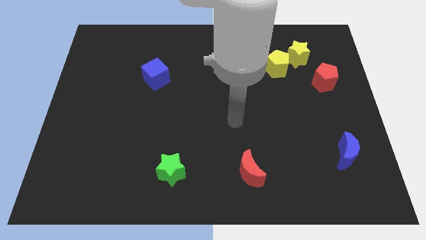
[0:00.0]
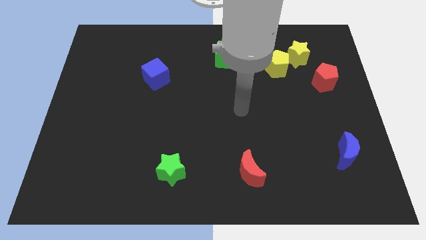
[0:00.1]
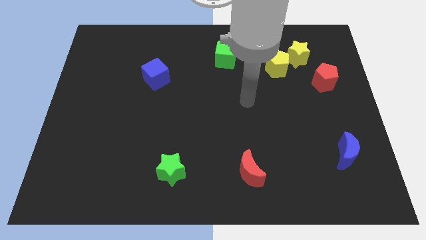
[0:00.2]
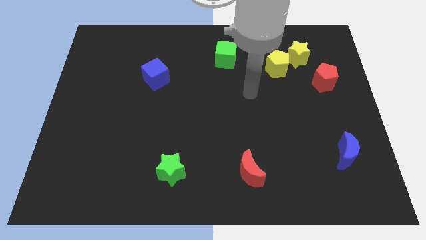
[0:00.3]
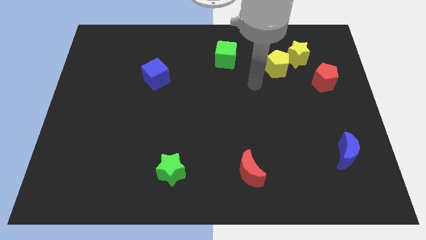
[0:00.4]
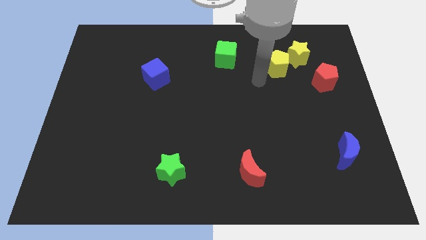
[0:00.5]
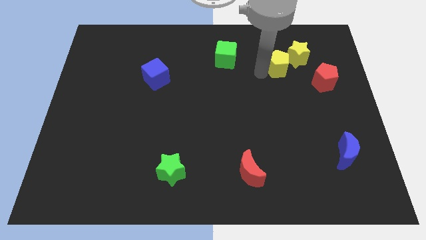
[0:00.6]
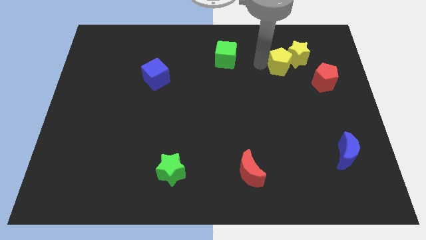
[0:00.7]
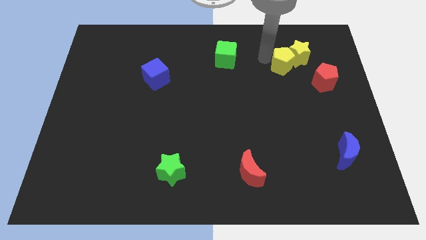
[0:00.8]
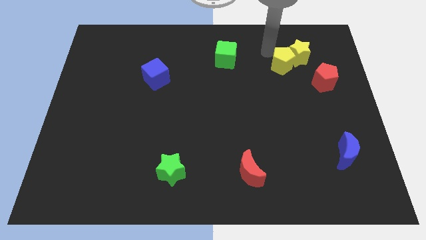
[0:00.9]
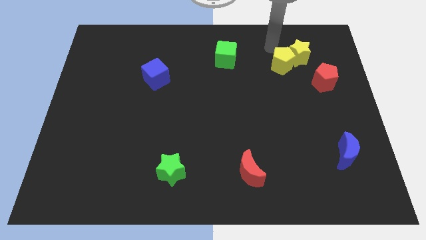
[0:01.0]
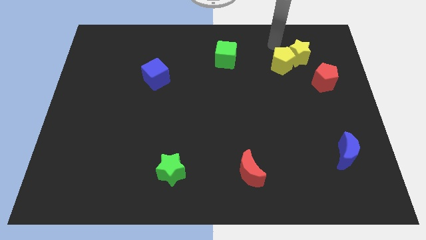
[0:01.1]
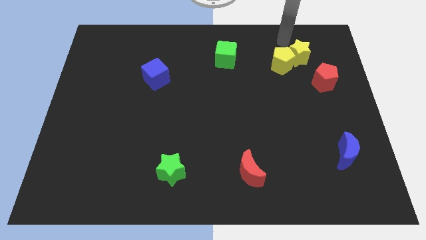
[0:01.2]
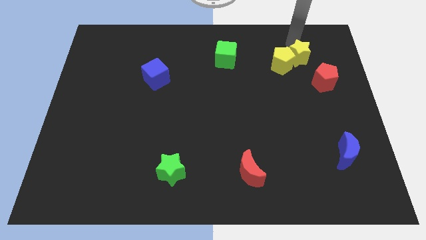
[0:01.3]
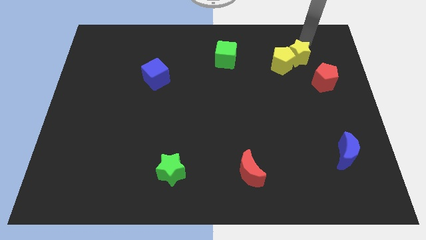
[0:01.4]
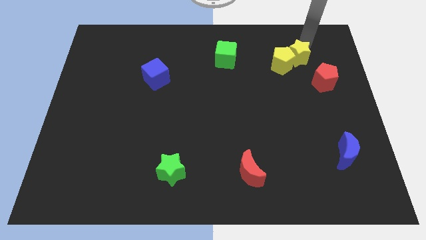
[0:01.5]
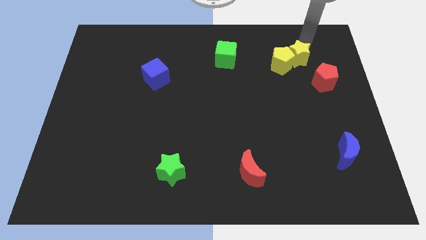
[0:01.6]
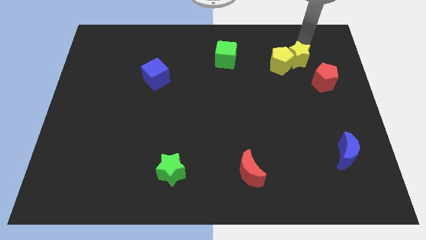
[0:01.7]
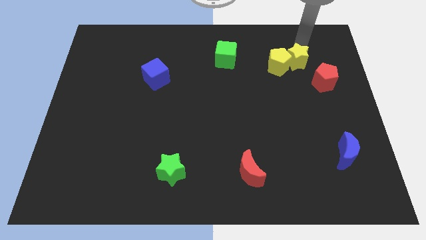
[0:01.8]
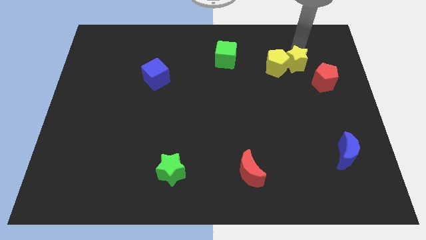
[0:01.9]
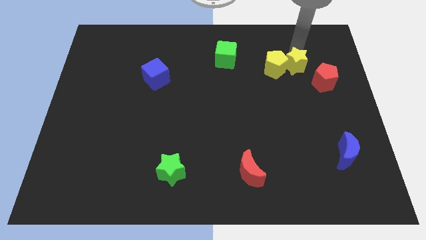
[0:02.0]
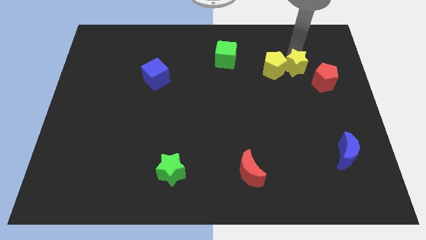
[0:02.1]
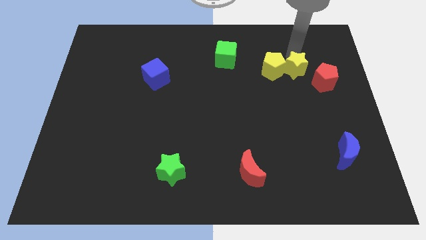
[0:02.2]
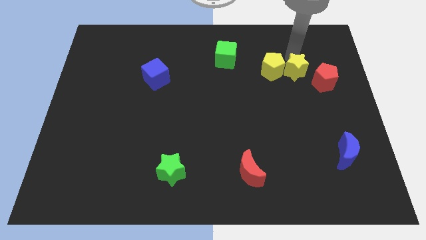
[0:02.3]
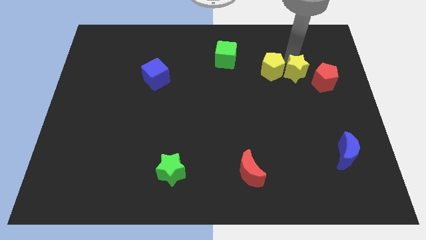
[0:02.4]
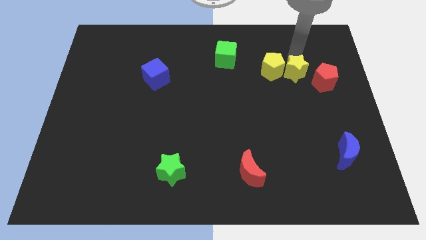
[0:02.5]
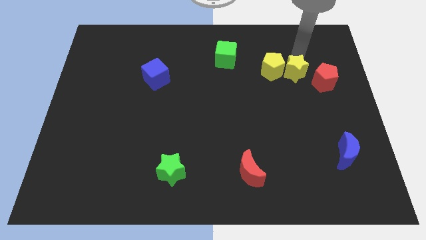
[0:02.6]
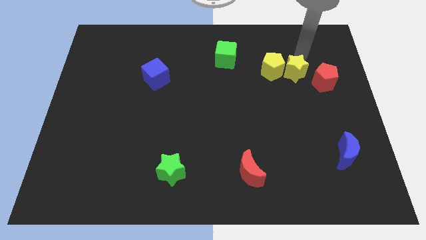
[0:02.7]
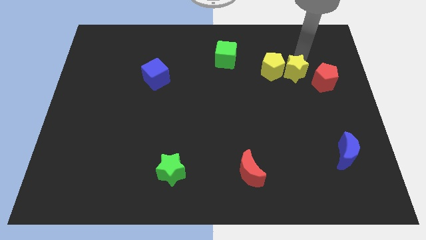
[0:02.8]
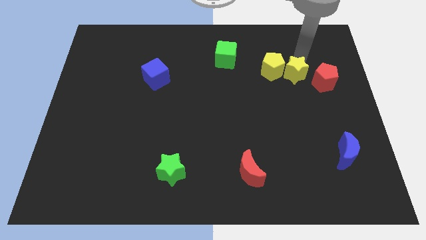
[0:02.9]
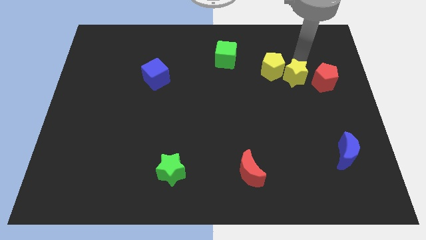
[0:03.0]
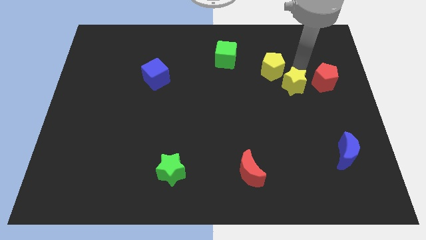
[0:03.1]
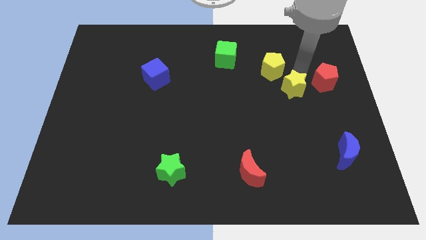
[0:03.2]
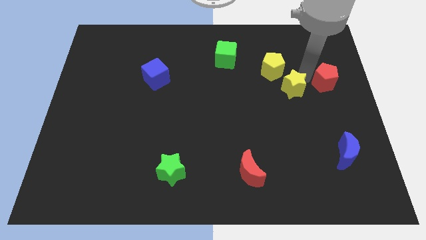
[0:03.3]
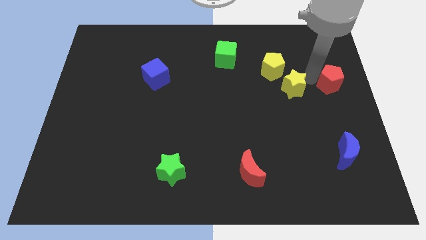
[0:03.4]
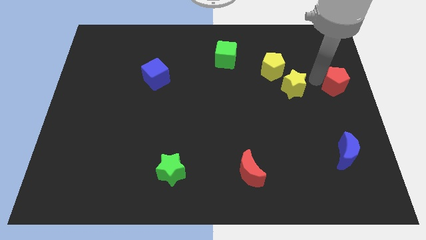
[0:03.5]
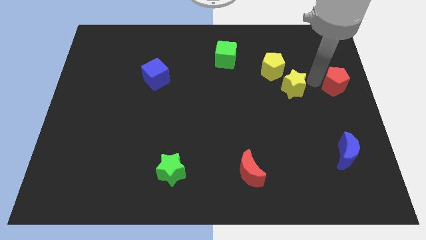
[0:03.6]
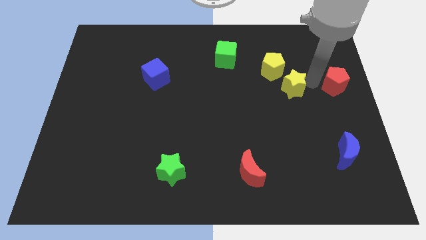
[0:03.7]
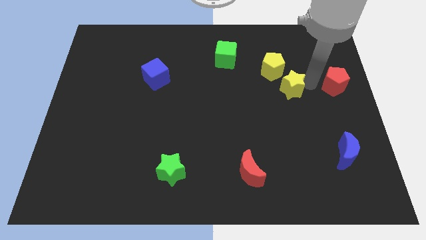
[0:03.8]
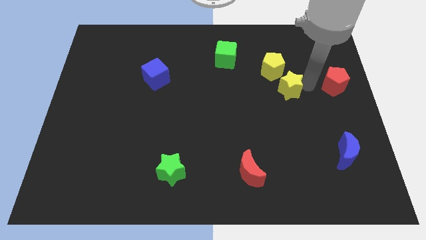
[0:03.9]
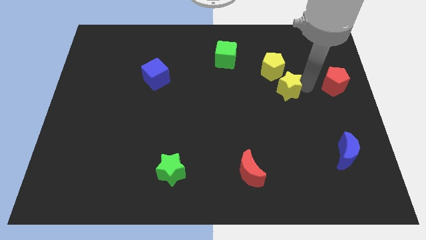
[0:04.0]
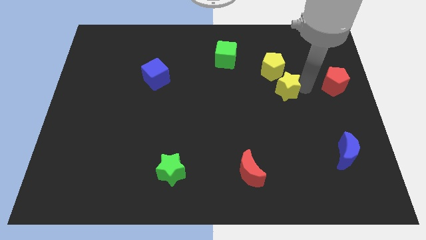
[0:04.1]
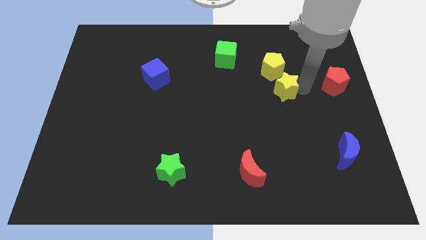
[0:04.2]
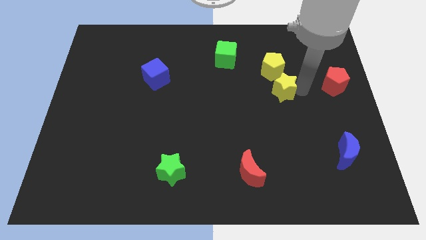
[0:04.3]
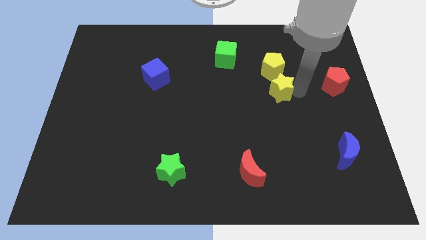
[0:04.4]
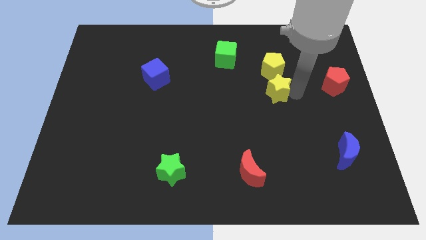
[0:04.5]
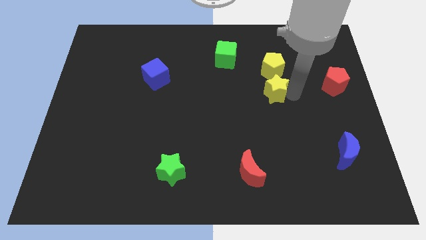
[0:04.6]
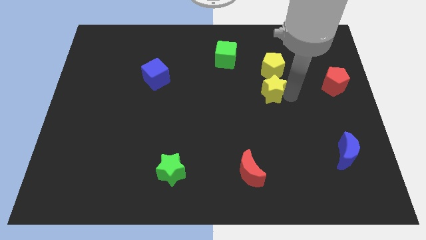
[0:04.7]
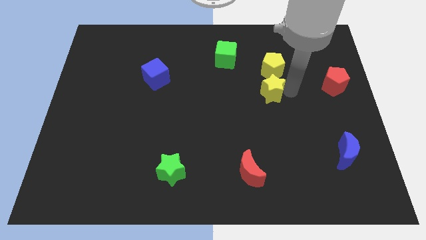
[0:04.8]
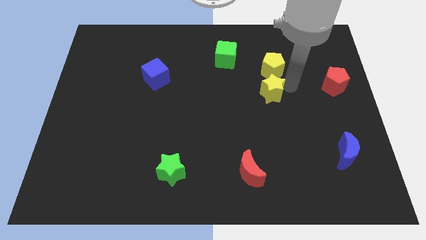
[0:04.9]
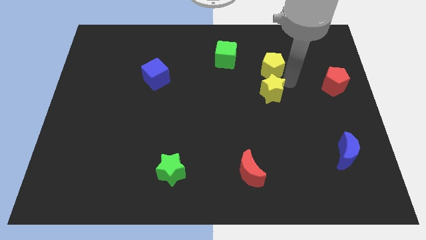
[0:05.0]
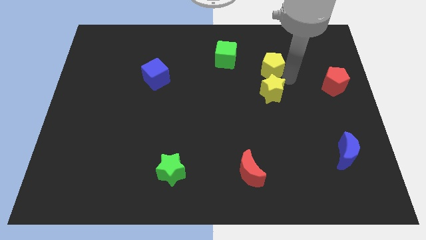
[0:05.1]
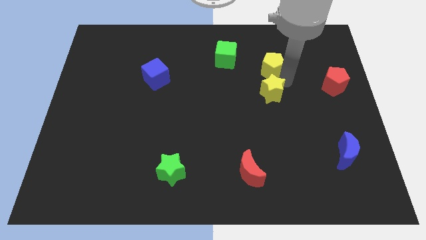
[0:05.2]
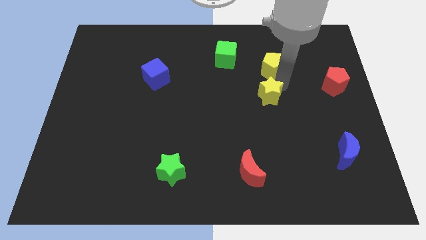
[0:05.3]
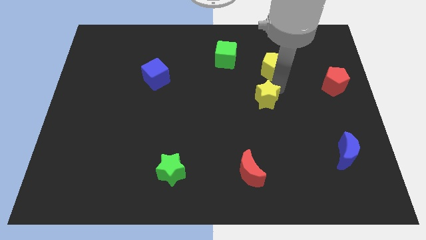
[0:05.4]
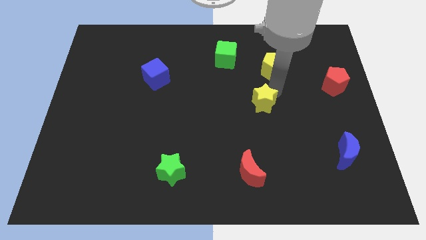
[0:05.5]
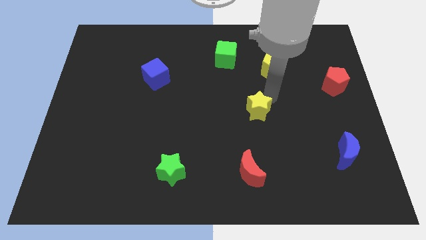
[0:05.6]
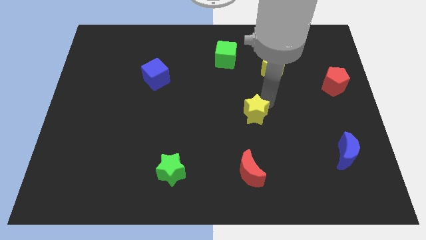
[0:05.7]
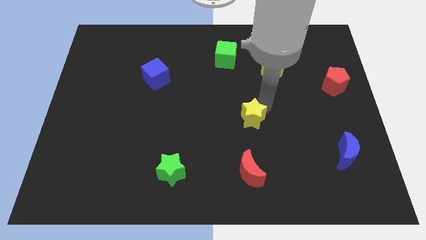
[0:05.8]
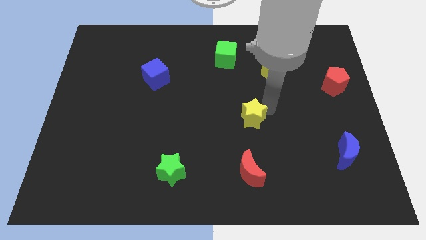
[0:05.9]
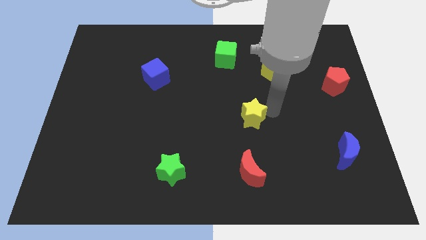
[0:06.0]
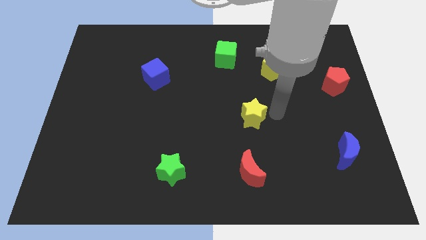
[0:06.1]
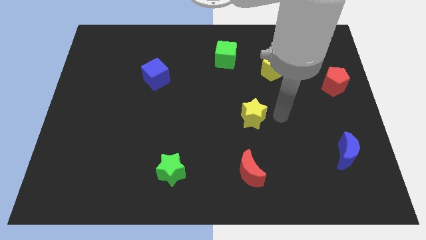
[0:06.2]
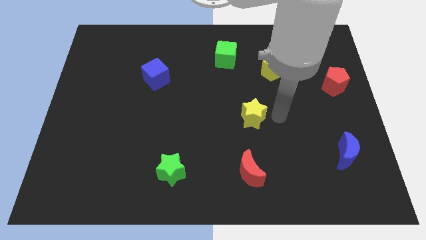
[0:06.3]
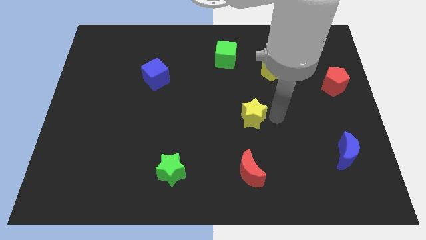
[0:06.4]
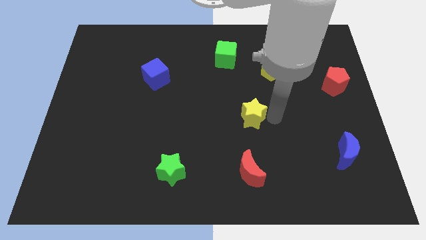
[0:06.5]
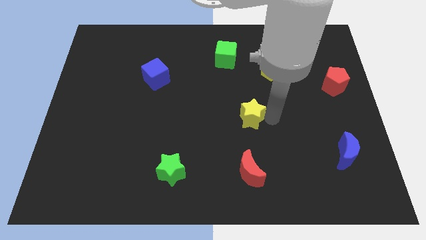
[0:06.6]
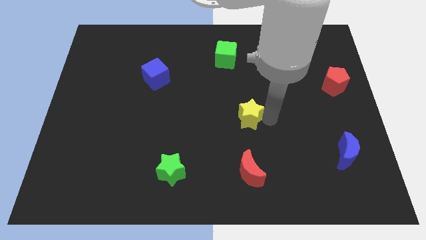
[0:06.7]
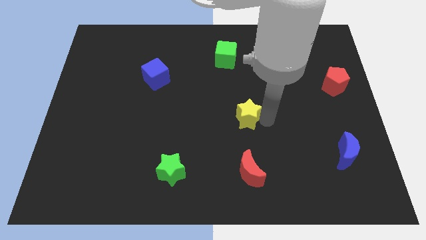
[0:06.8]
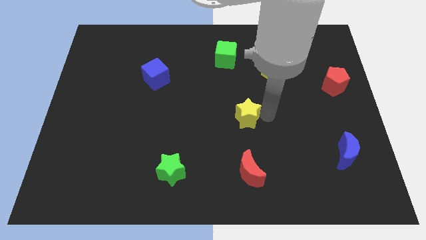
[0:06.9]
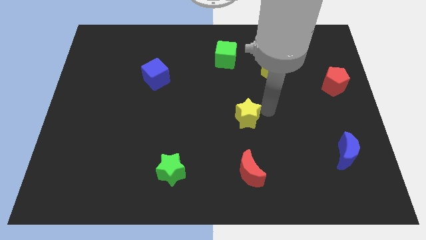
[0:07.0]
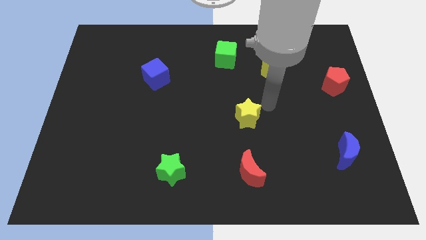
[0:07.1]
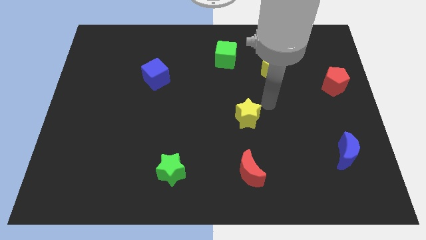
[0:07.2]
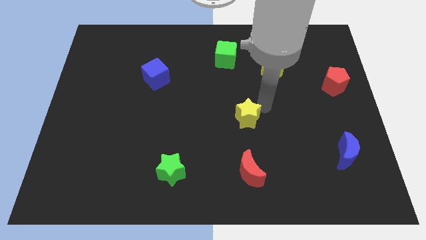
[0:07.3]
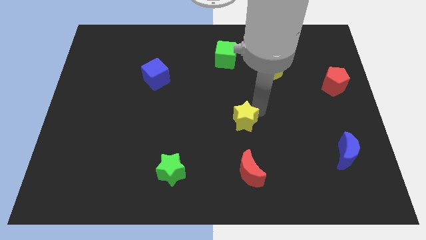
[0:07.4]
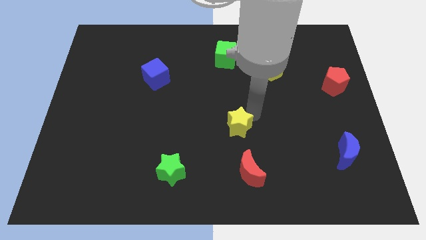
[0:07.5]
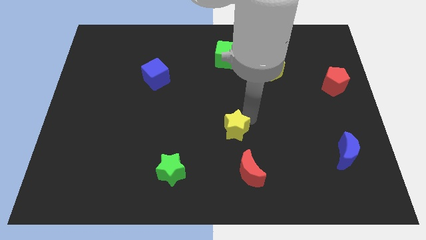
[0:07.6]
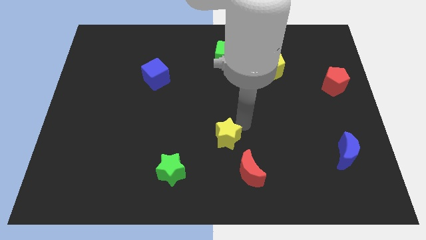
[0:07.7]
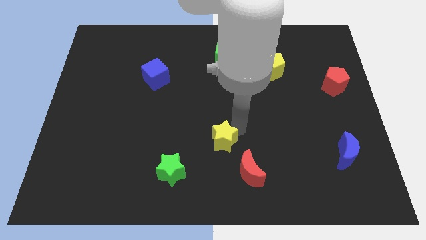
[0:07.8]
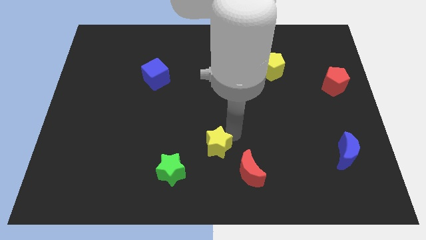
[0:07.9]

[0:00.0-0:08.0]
move the yellow star to the top right side of the green star

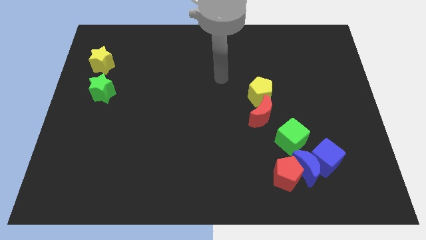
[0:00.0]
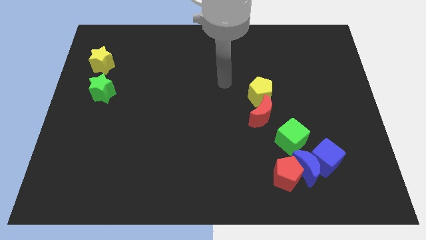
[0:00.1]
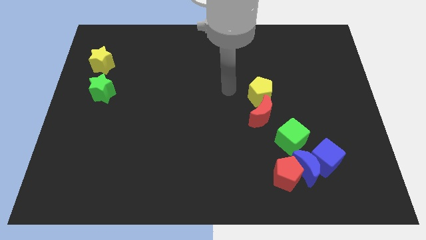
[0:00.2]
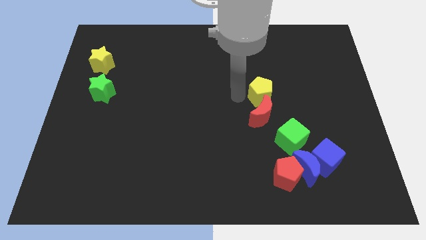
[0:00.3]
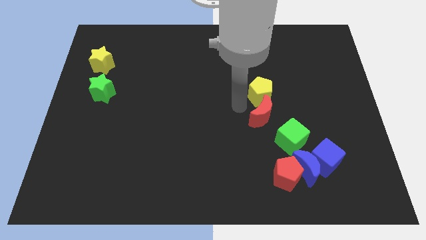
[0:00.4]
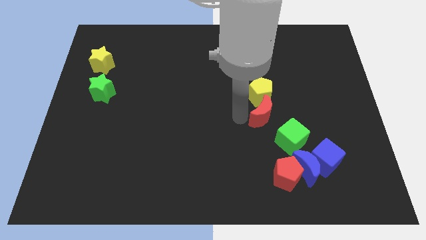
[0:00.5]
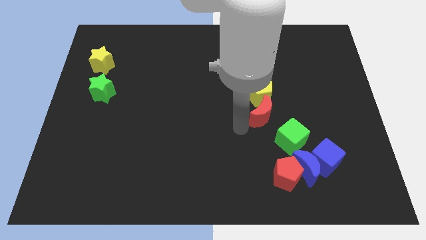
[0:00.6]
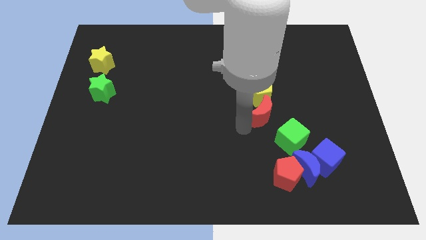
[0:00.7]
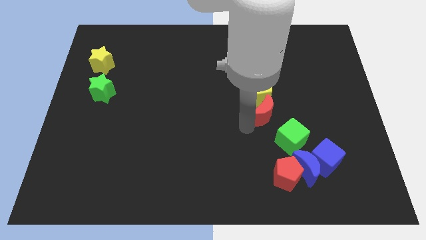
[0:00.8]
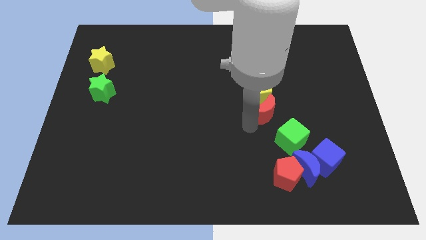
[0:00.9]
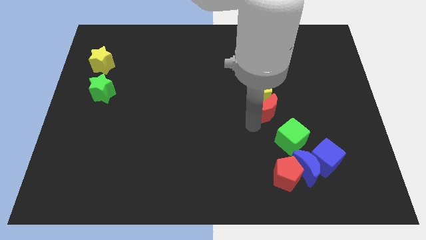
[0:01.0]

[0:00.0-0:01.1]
slide the red moon above the green cube
